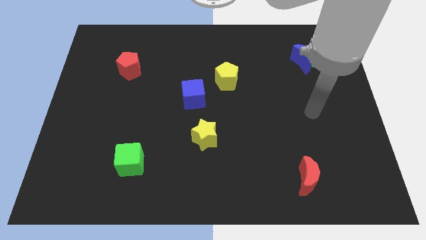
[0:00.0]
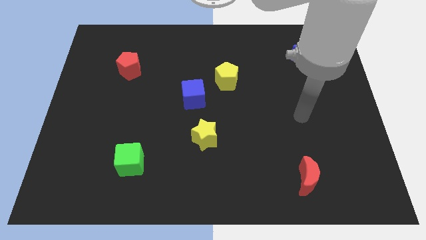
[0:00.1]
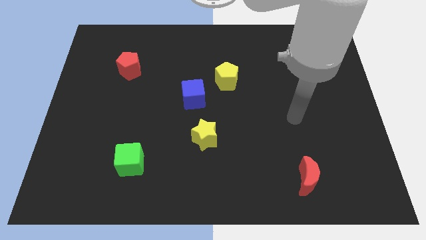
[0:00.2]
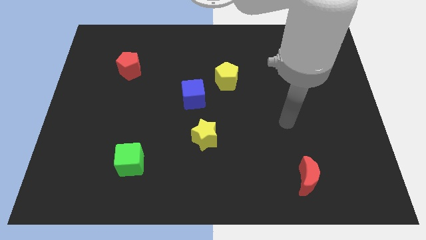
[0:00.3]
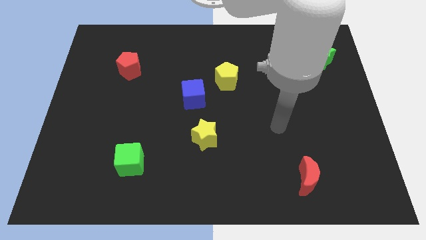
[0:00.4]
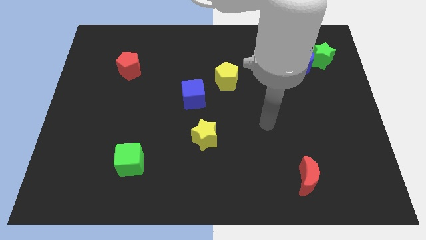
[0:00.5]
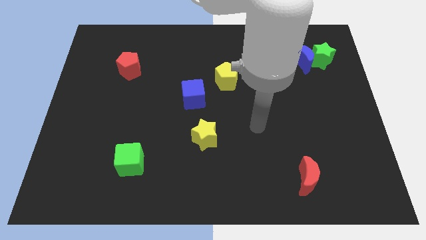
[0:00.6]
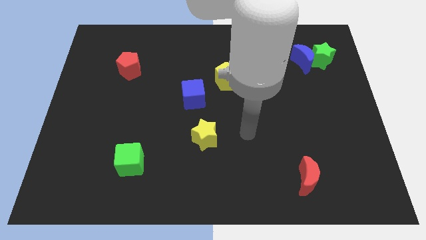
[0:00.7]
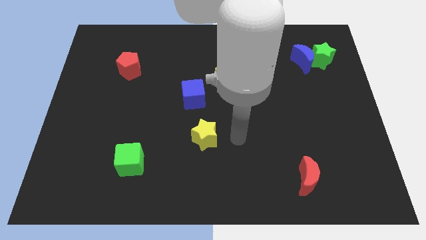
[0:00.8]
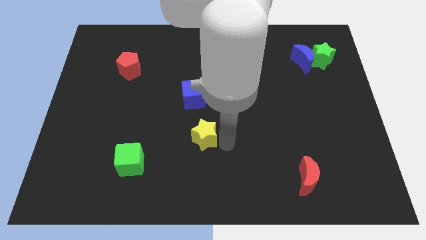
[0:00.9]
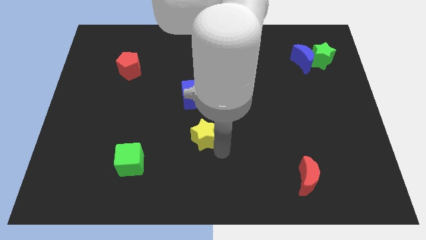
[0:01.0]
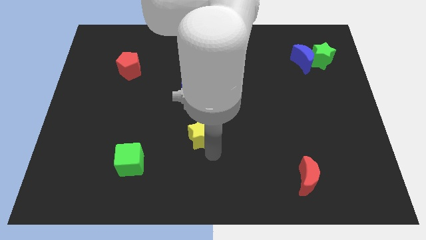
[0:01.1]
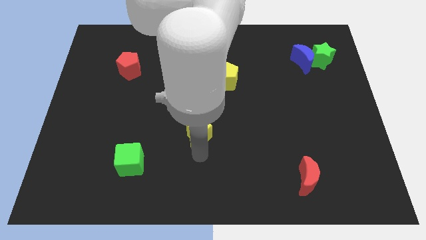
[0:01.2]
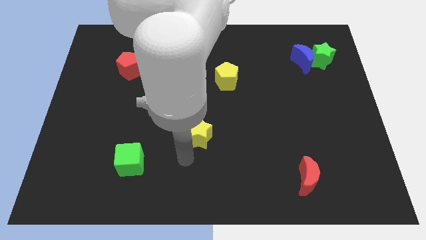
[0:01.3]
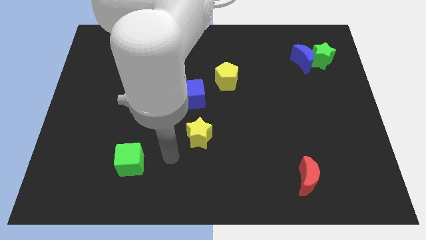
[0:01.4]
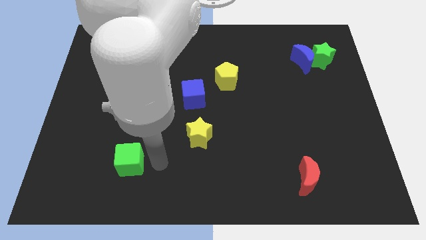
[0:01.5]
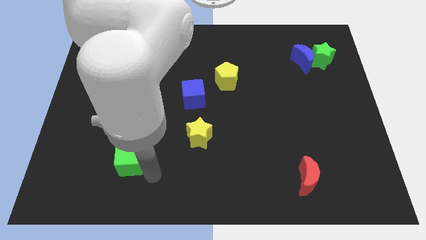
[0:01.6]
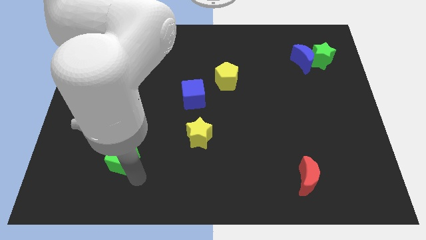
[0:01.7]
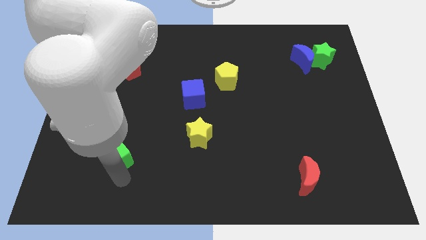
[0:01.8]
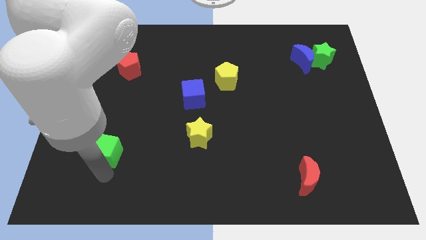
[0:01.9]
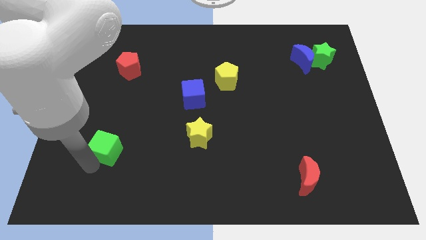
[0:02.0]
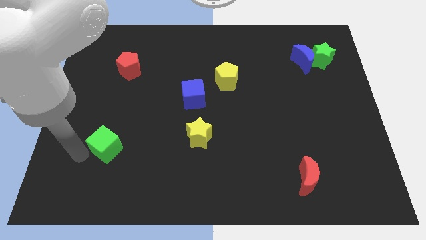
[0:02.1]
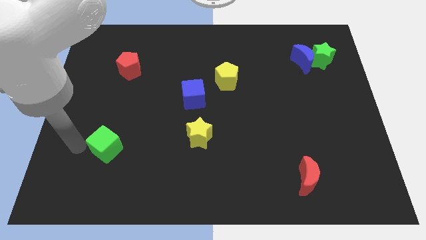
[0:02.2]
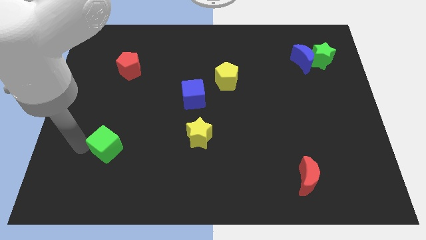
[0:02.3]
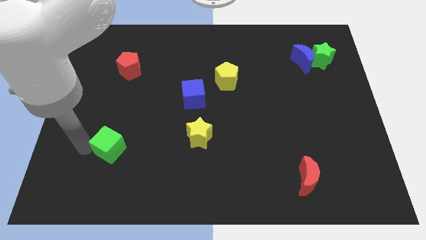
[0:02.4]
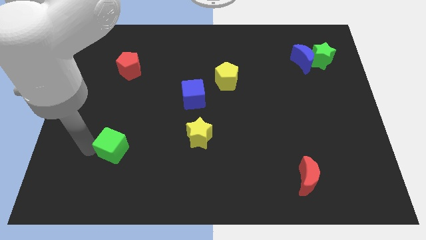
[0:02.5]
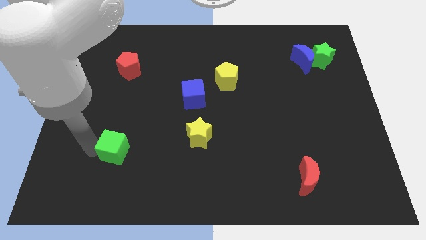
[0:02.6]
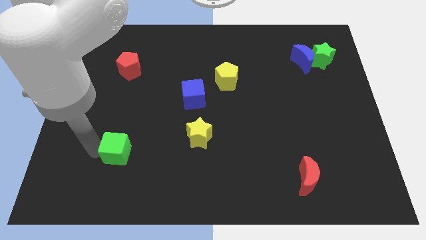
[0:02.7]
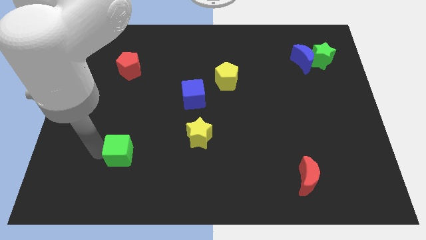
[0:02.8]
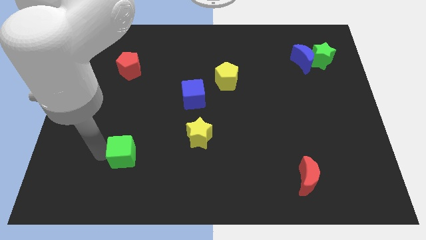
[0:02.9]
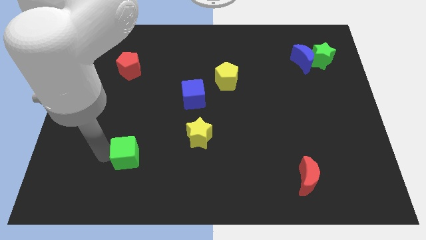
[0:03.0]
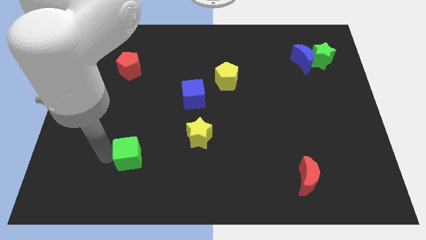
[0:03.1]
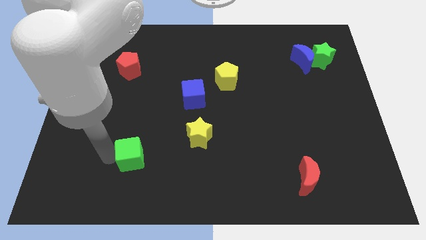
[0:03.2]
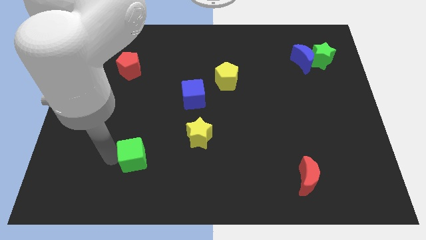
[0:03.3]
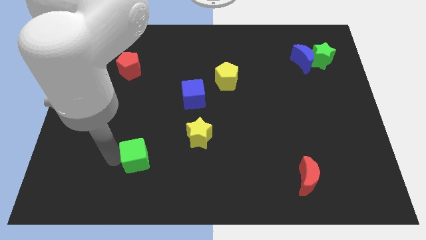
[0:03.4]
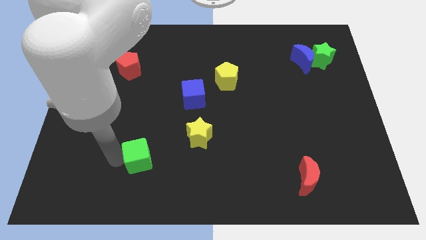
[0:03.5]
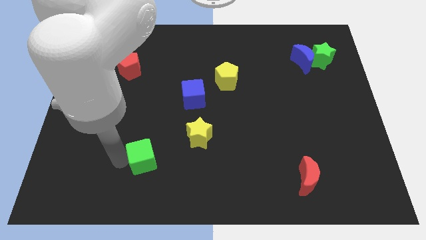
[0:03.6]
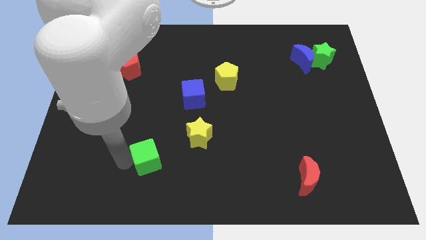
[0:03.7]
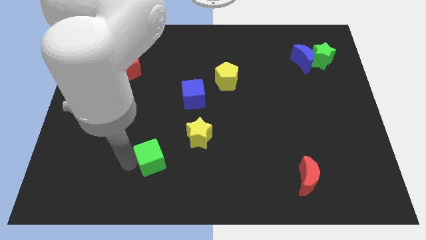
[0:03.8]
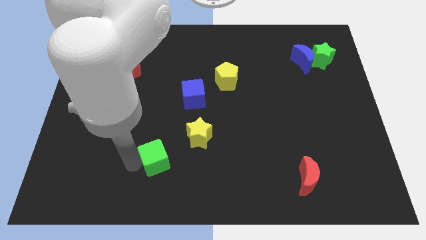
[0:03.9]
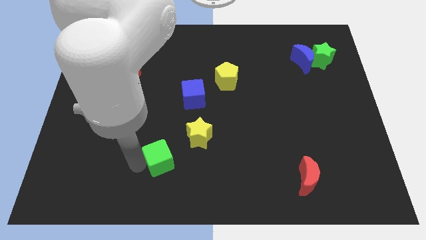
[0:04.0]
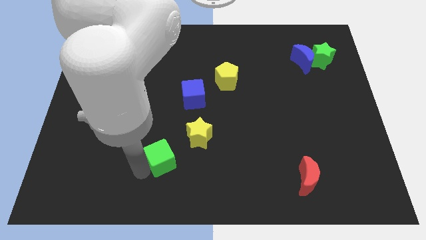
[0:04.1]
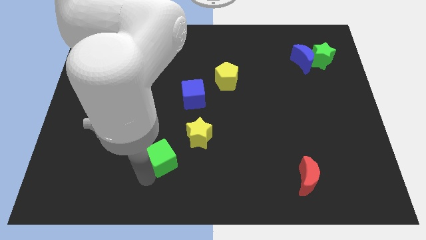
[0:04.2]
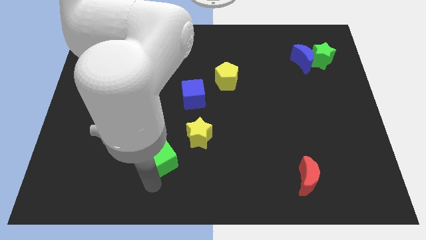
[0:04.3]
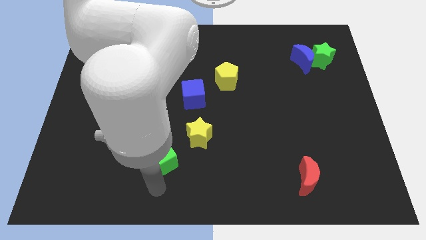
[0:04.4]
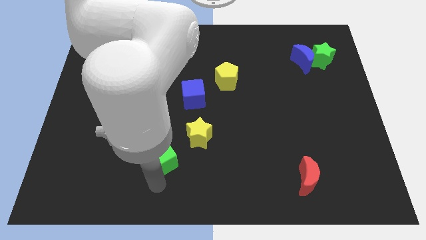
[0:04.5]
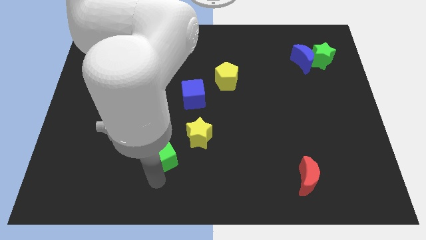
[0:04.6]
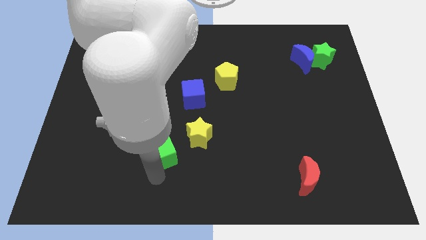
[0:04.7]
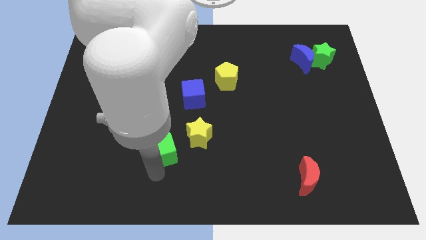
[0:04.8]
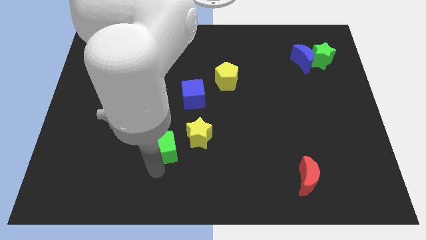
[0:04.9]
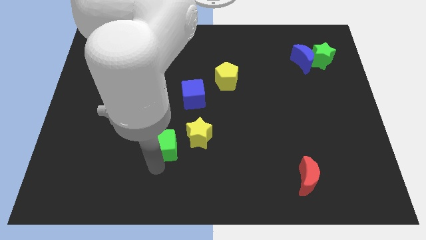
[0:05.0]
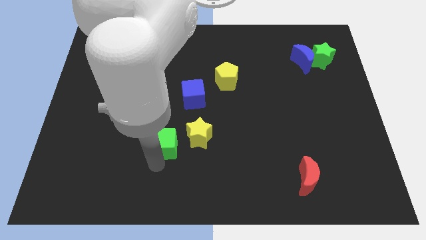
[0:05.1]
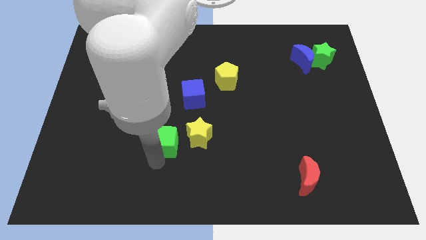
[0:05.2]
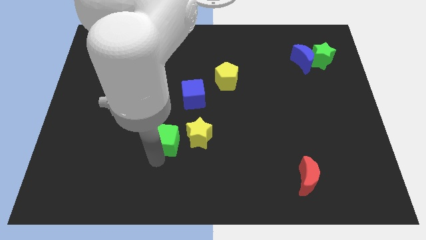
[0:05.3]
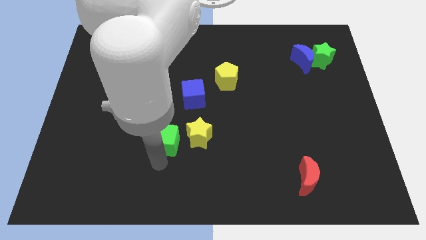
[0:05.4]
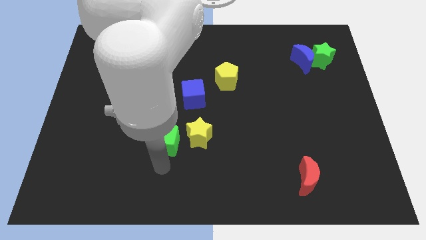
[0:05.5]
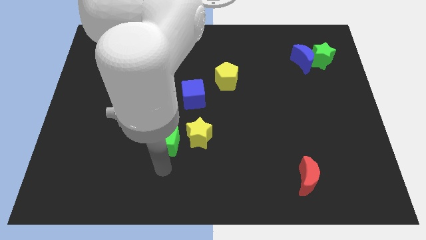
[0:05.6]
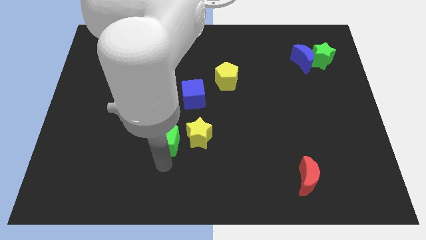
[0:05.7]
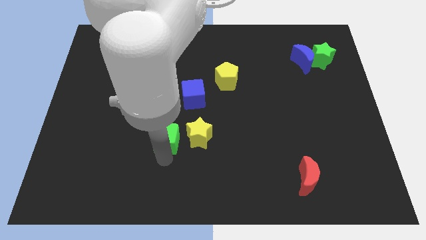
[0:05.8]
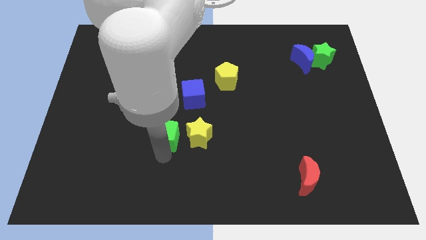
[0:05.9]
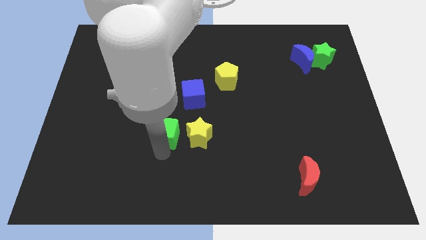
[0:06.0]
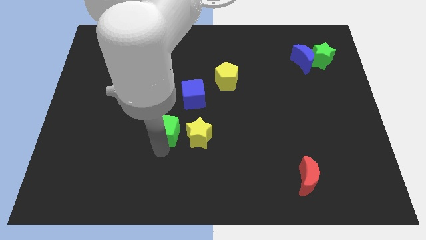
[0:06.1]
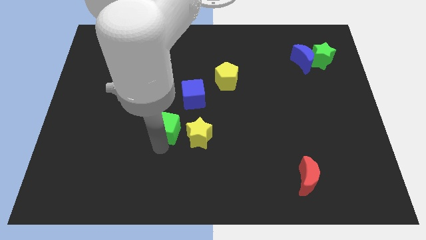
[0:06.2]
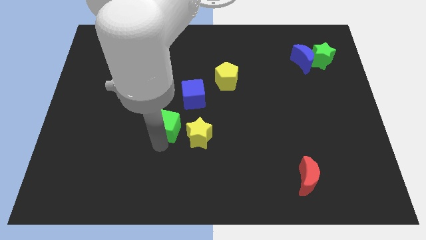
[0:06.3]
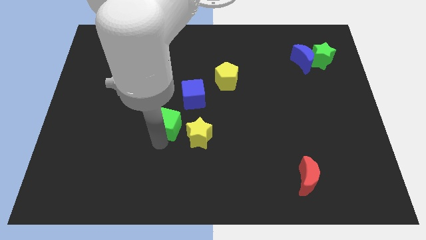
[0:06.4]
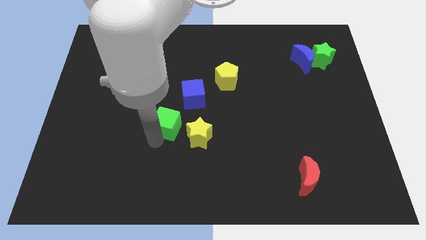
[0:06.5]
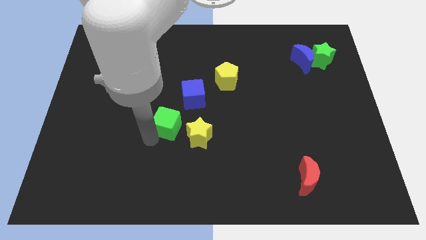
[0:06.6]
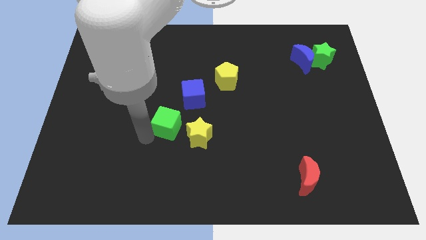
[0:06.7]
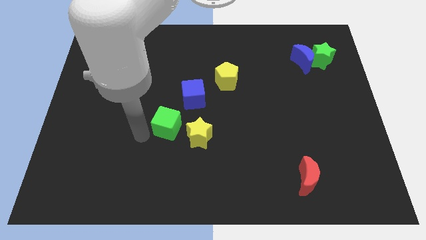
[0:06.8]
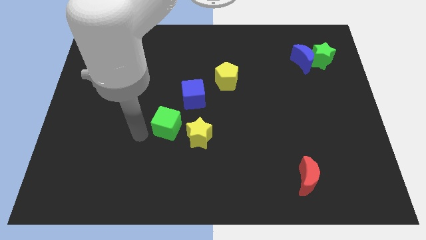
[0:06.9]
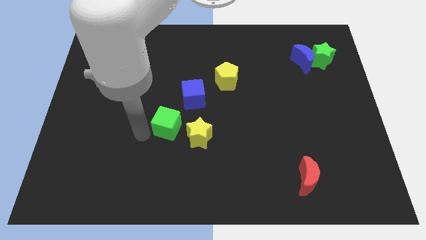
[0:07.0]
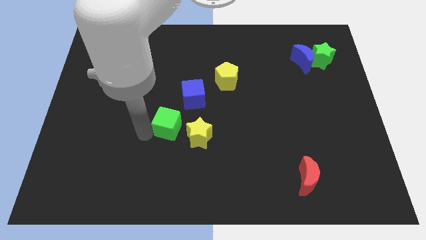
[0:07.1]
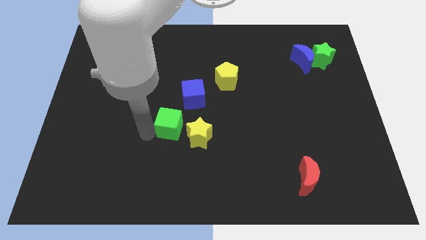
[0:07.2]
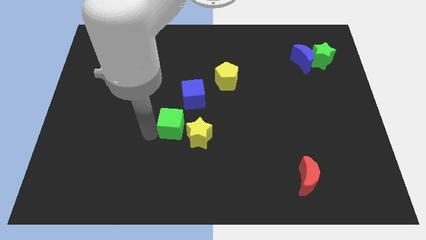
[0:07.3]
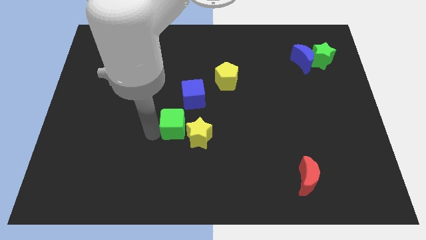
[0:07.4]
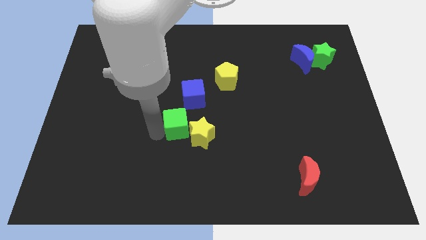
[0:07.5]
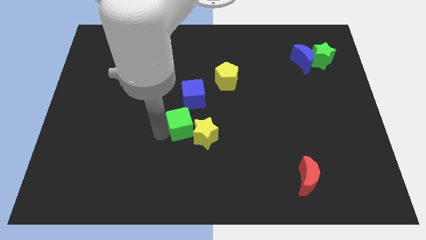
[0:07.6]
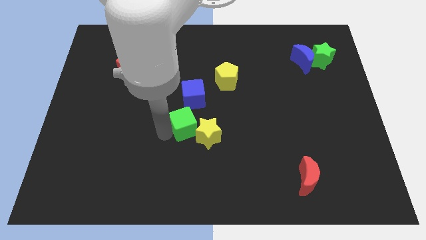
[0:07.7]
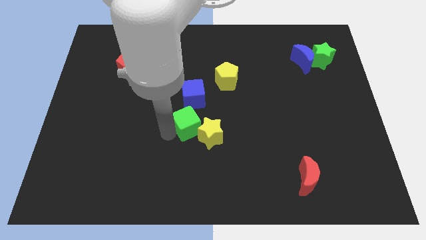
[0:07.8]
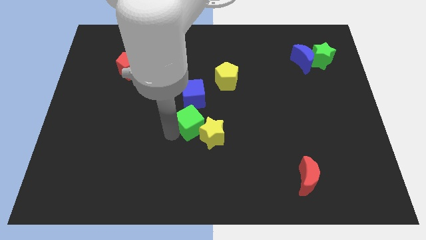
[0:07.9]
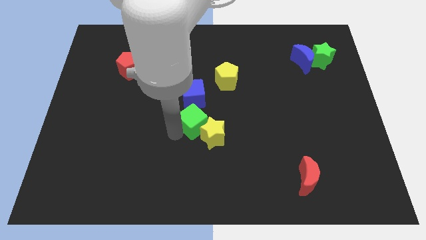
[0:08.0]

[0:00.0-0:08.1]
slide the green cube above the yellow star
